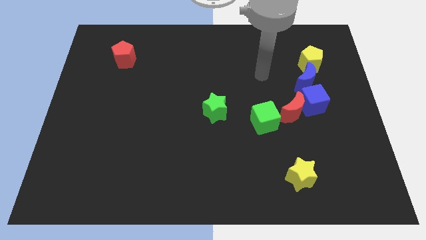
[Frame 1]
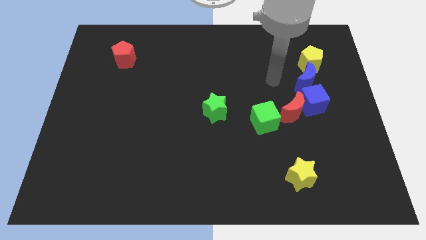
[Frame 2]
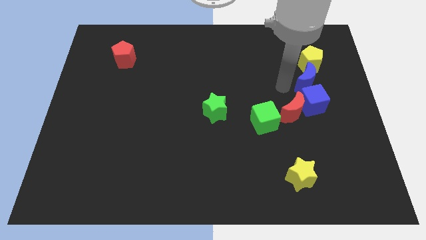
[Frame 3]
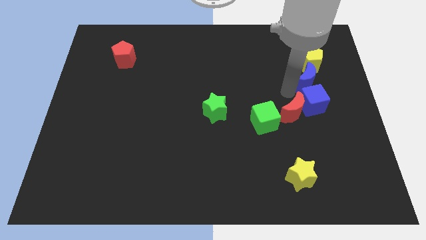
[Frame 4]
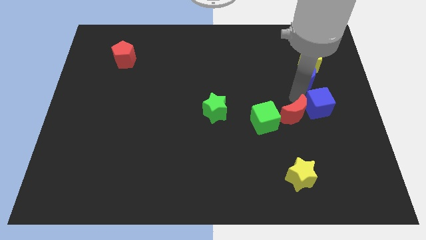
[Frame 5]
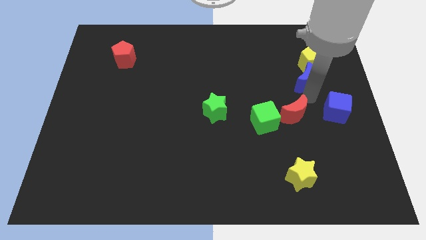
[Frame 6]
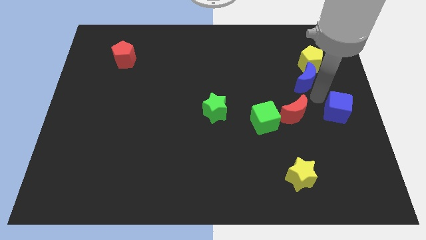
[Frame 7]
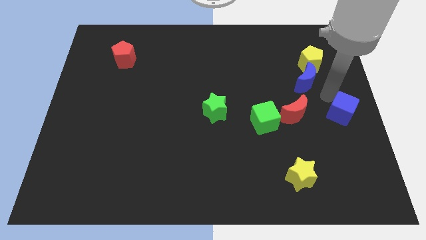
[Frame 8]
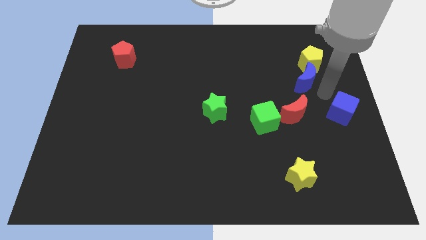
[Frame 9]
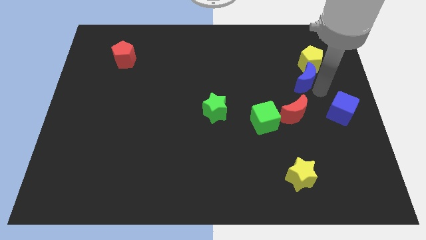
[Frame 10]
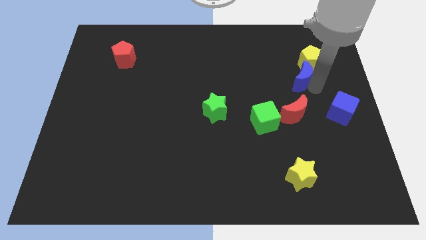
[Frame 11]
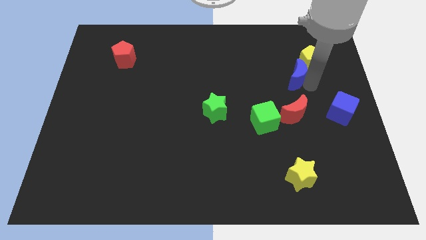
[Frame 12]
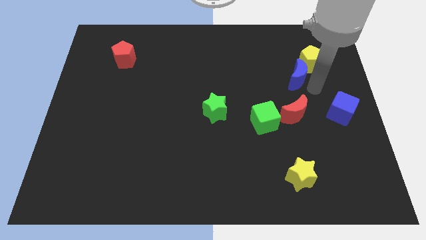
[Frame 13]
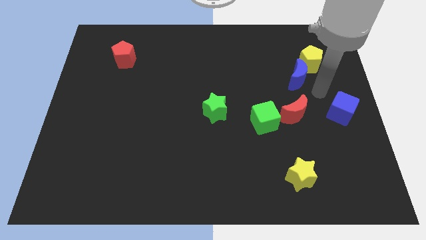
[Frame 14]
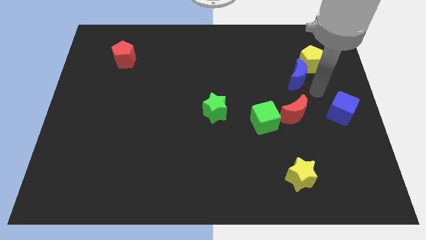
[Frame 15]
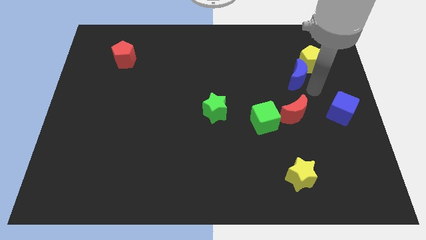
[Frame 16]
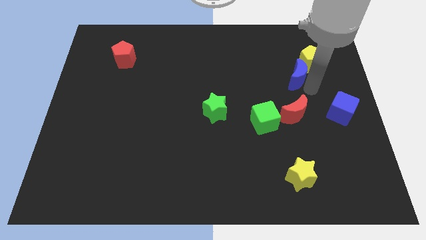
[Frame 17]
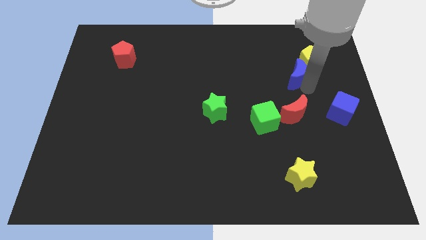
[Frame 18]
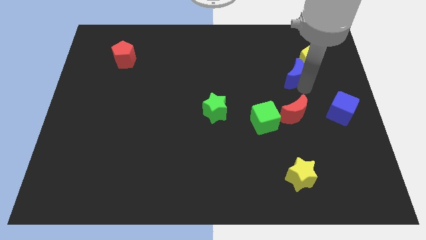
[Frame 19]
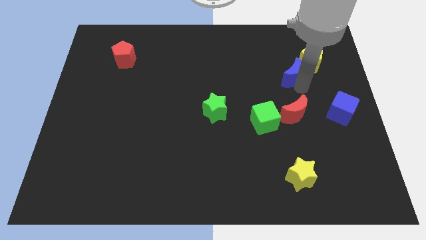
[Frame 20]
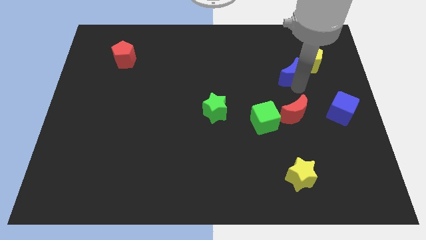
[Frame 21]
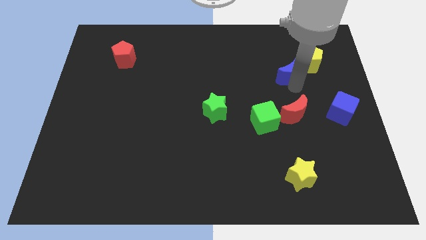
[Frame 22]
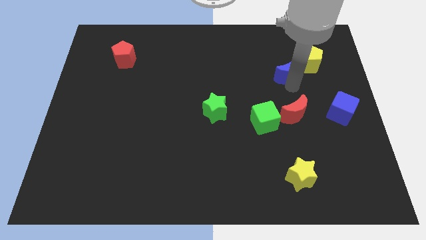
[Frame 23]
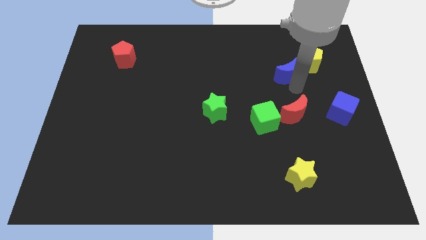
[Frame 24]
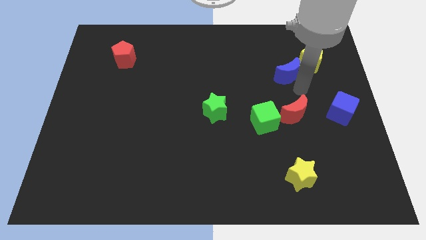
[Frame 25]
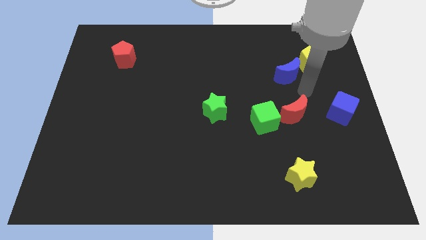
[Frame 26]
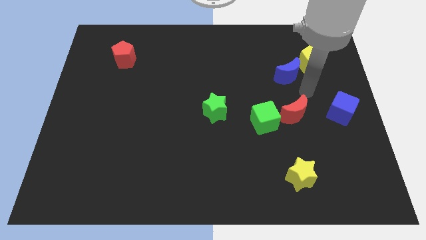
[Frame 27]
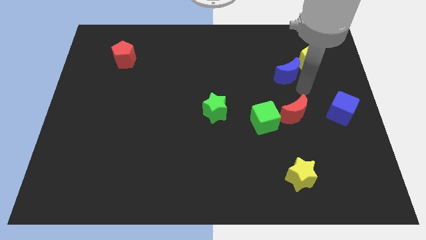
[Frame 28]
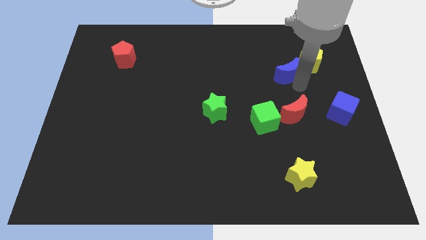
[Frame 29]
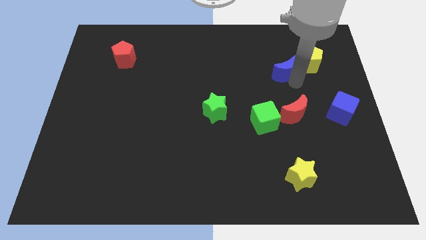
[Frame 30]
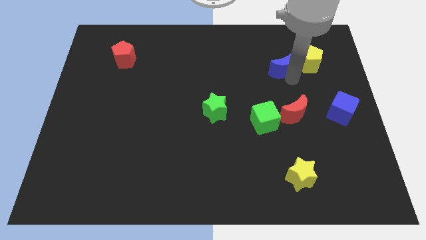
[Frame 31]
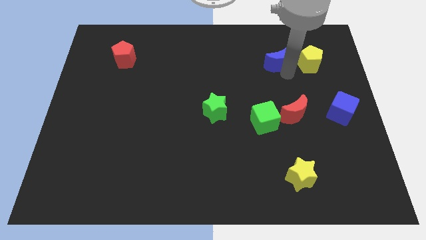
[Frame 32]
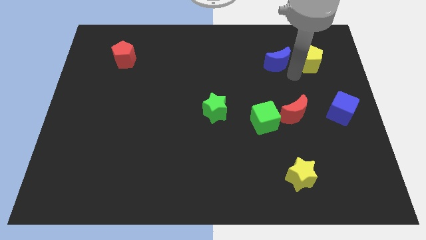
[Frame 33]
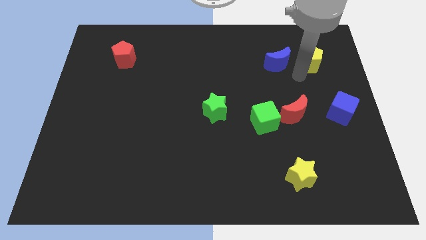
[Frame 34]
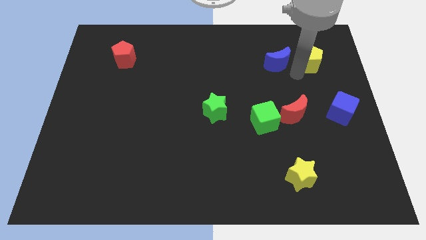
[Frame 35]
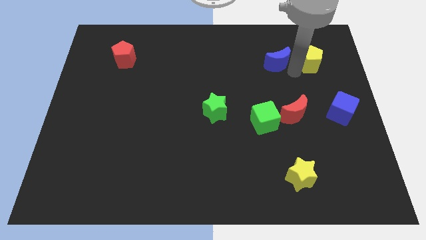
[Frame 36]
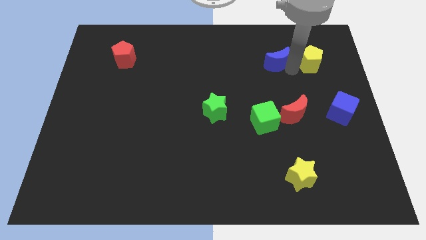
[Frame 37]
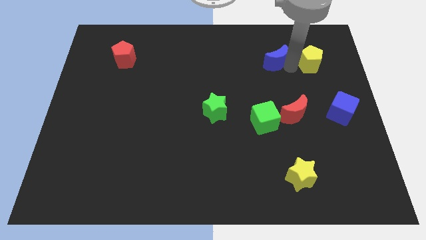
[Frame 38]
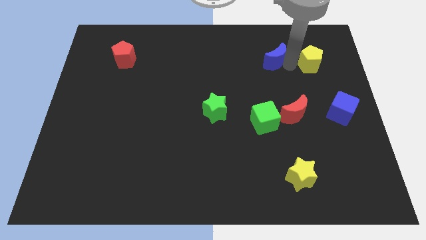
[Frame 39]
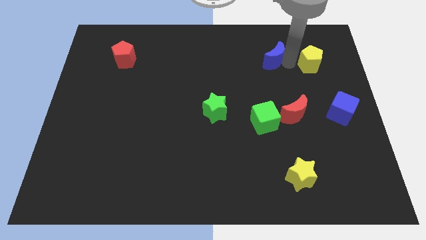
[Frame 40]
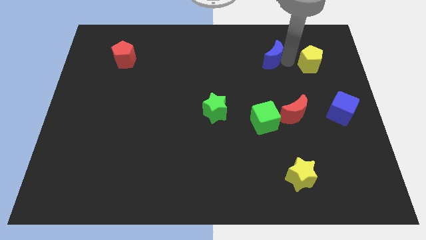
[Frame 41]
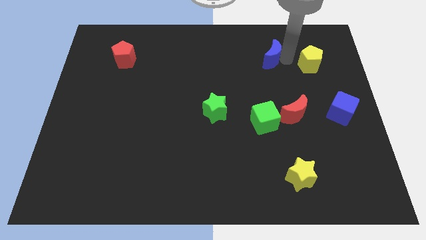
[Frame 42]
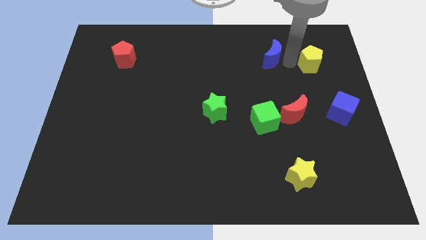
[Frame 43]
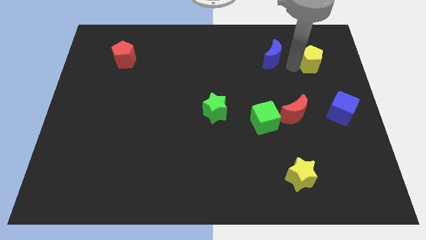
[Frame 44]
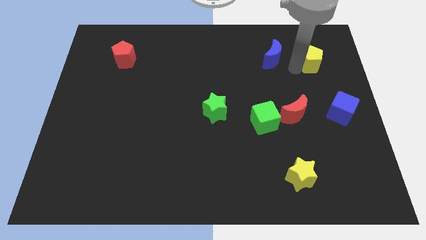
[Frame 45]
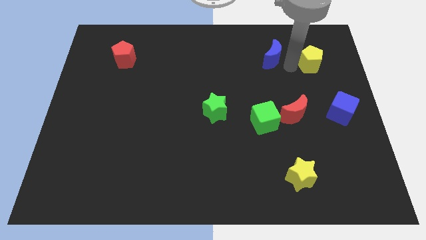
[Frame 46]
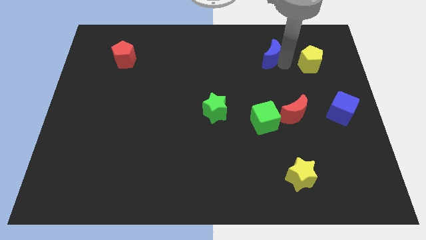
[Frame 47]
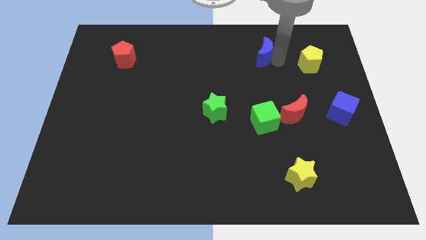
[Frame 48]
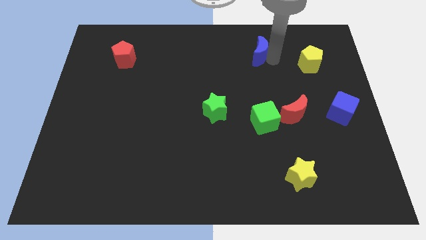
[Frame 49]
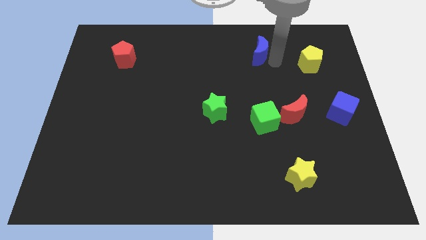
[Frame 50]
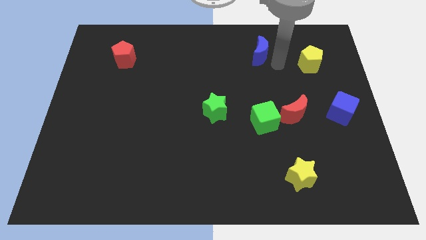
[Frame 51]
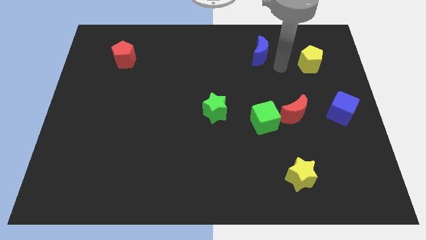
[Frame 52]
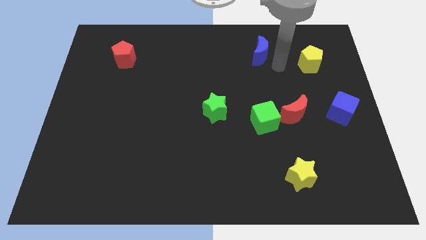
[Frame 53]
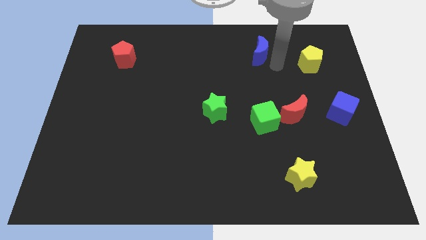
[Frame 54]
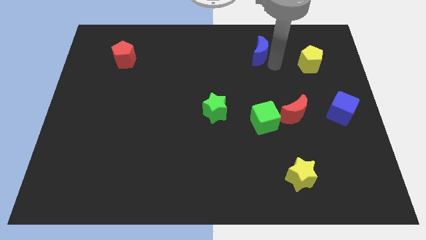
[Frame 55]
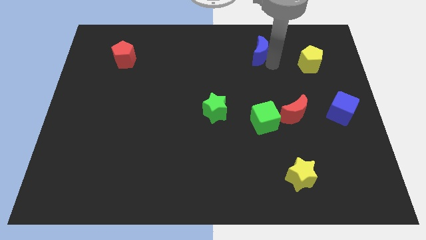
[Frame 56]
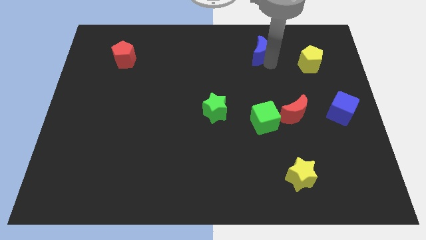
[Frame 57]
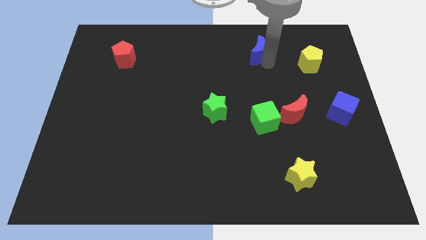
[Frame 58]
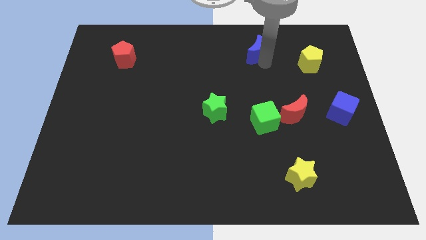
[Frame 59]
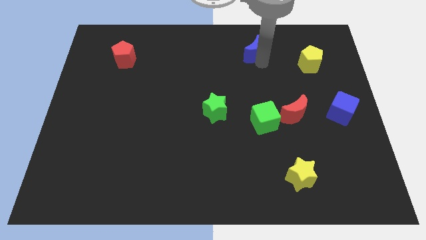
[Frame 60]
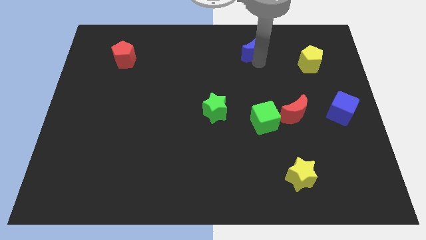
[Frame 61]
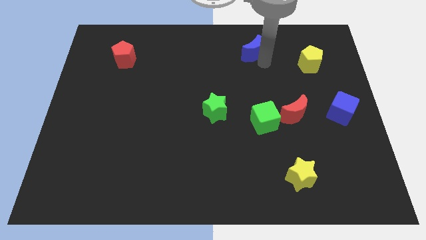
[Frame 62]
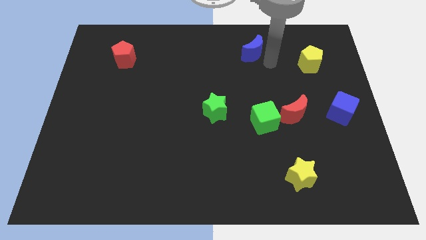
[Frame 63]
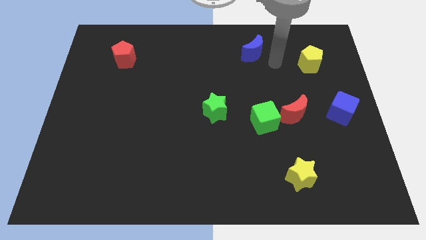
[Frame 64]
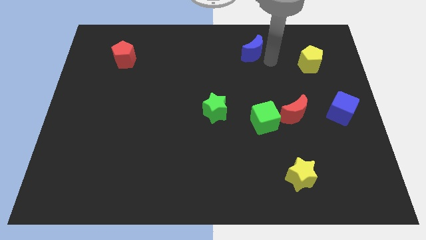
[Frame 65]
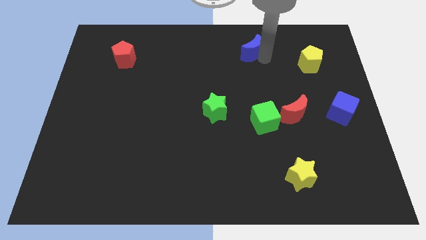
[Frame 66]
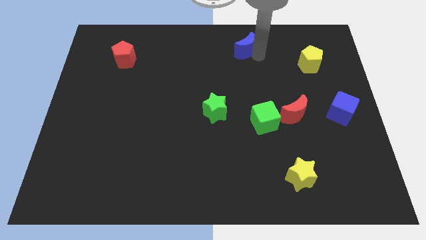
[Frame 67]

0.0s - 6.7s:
slide the blue moon to the towards your base

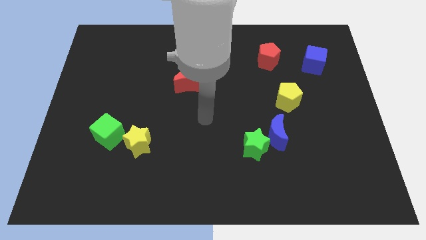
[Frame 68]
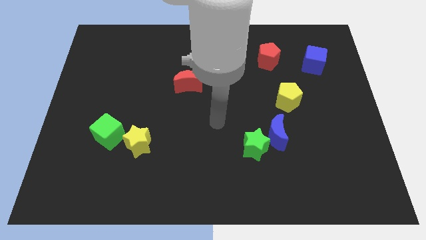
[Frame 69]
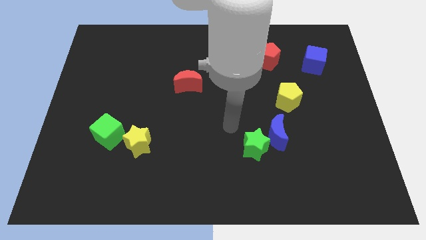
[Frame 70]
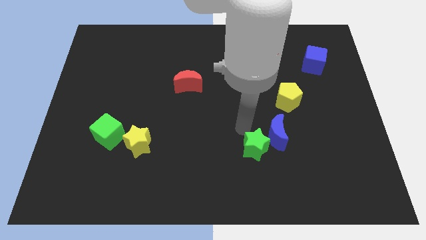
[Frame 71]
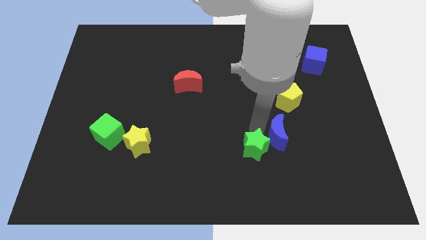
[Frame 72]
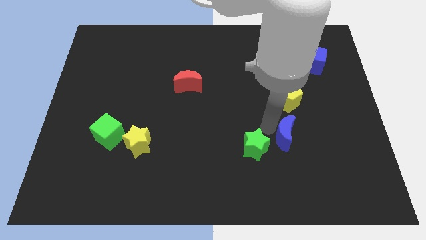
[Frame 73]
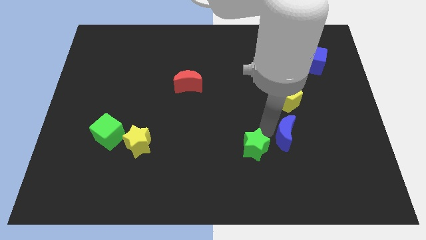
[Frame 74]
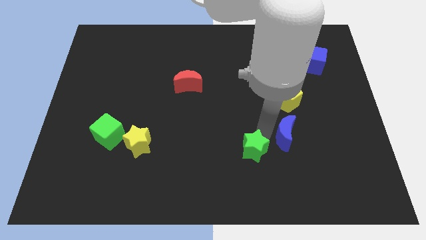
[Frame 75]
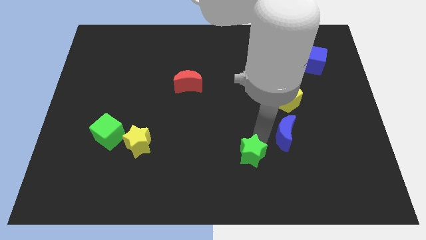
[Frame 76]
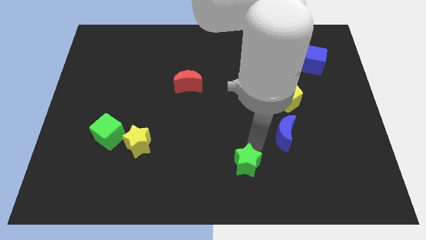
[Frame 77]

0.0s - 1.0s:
move the green star to the bottom
